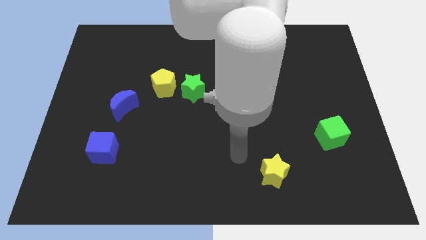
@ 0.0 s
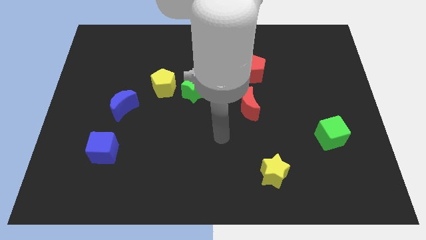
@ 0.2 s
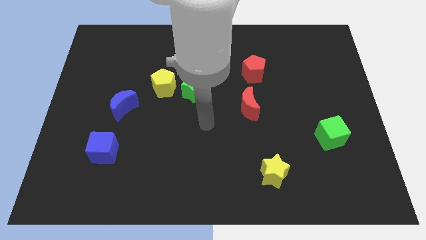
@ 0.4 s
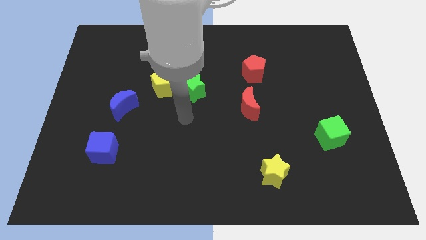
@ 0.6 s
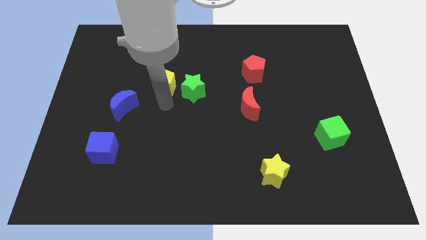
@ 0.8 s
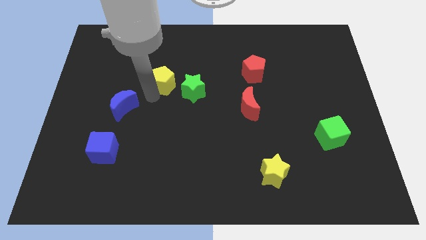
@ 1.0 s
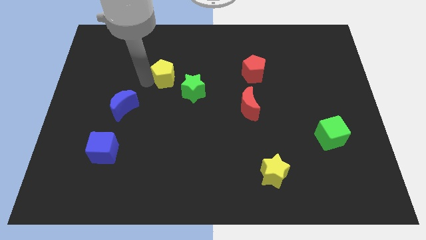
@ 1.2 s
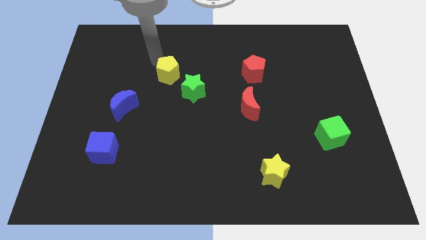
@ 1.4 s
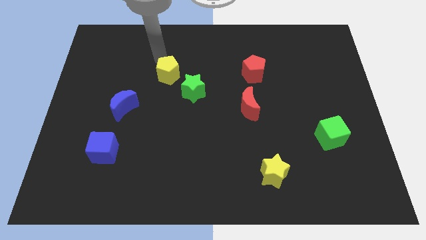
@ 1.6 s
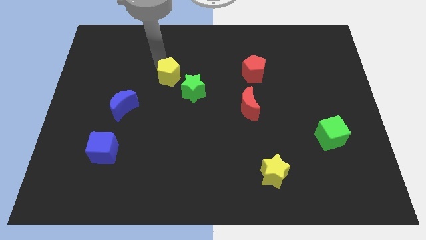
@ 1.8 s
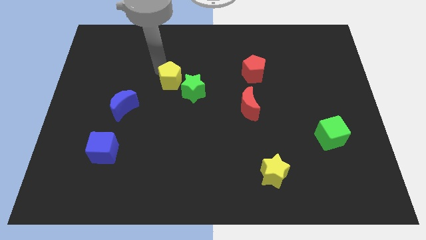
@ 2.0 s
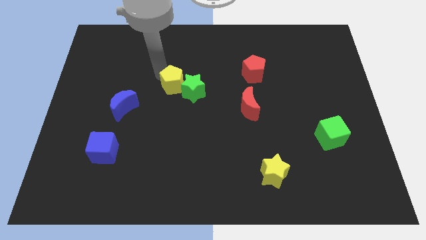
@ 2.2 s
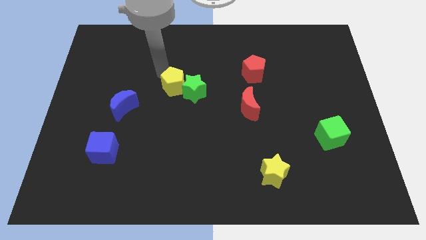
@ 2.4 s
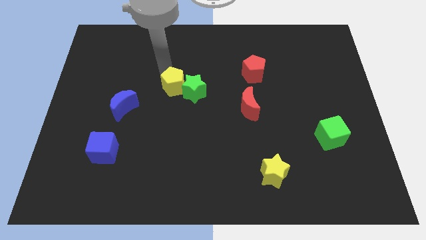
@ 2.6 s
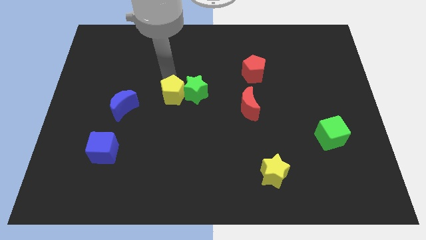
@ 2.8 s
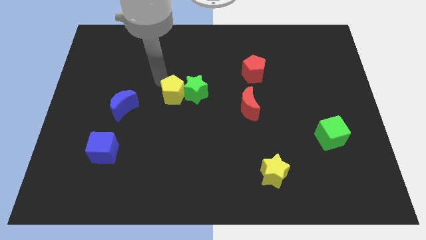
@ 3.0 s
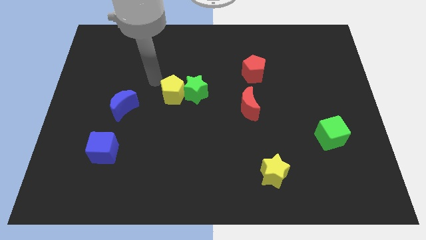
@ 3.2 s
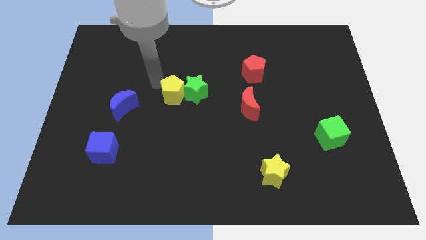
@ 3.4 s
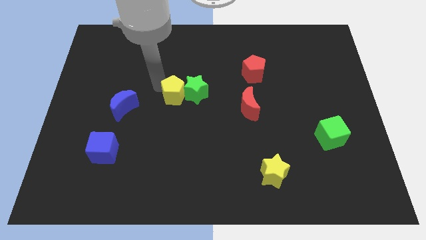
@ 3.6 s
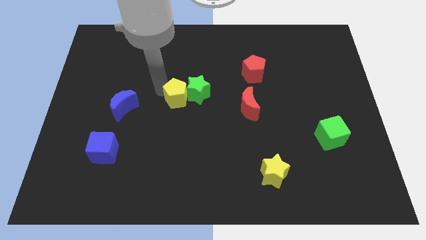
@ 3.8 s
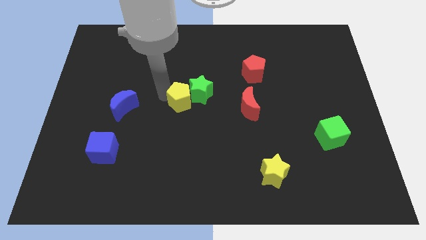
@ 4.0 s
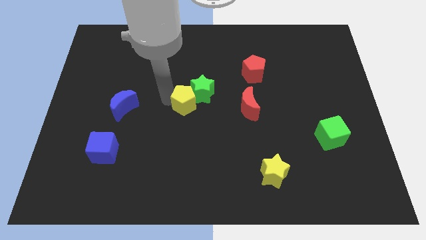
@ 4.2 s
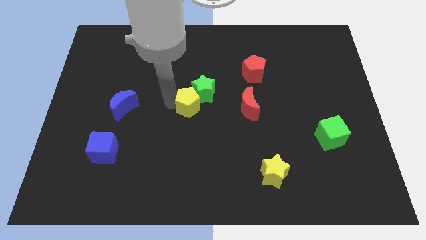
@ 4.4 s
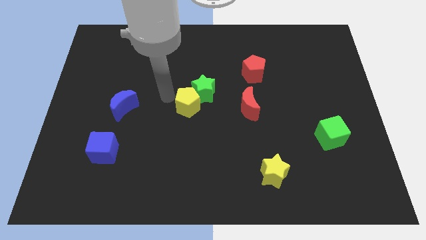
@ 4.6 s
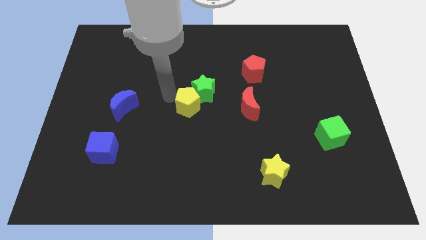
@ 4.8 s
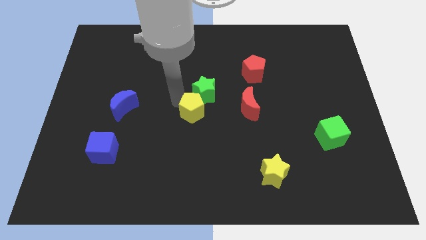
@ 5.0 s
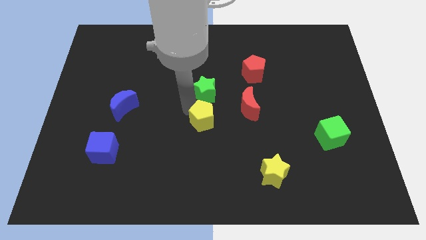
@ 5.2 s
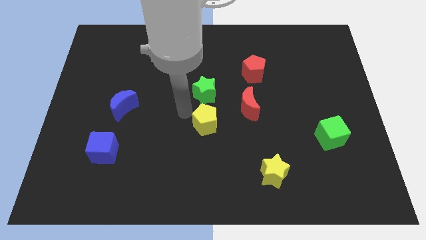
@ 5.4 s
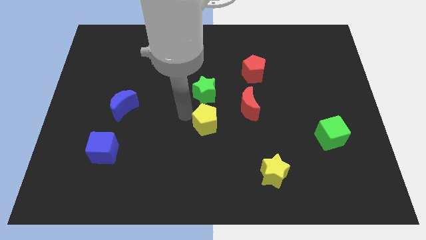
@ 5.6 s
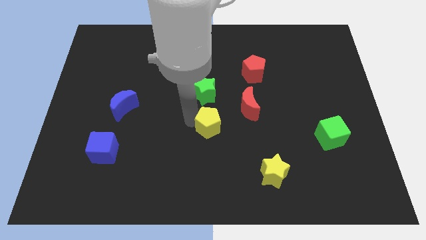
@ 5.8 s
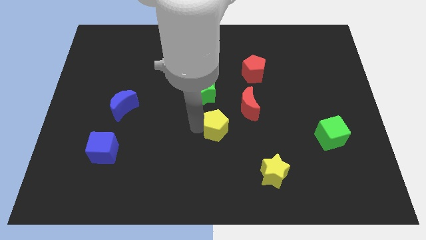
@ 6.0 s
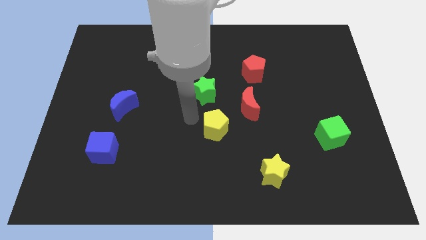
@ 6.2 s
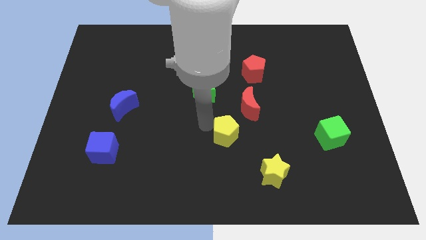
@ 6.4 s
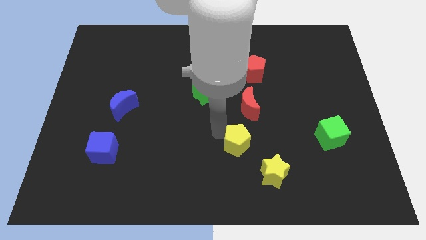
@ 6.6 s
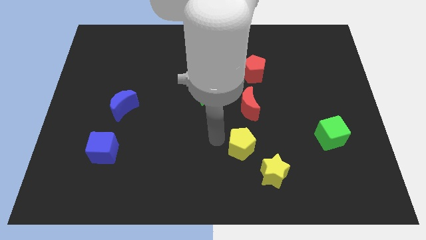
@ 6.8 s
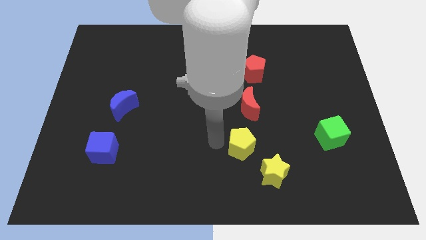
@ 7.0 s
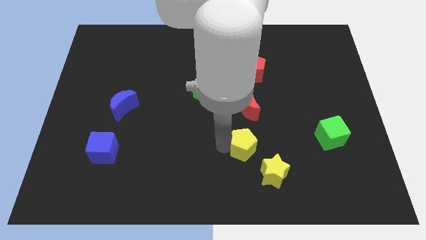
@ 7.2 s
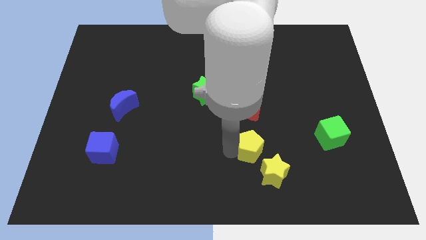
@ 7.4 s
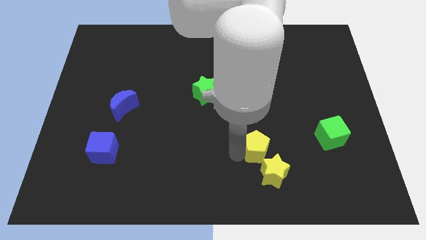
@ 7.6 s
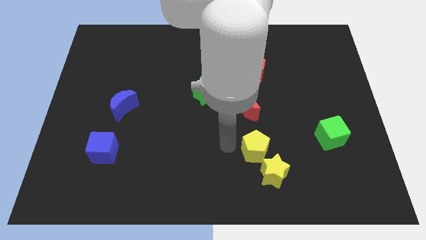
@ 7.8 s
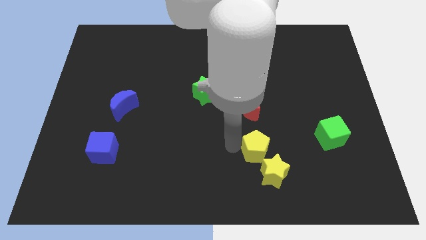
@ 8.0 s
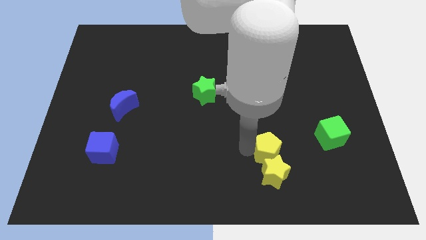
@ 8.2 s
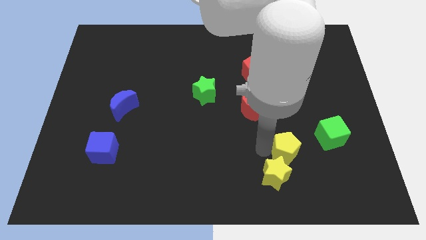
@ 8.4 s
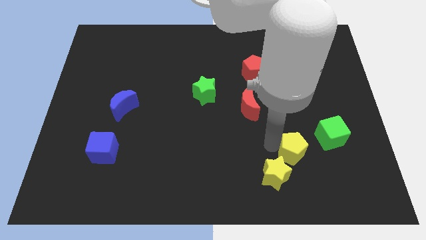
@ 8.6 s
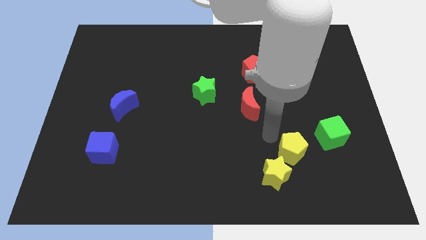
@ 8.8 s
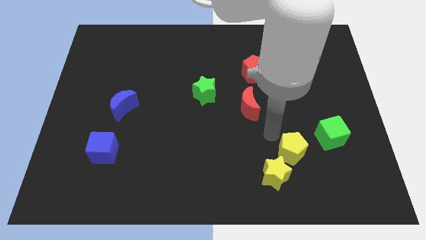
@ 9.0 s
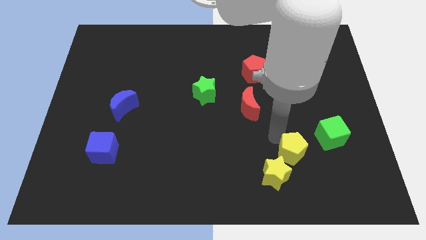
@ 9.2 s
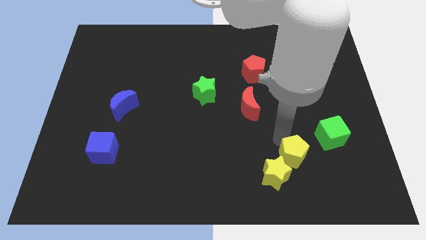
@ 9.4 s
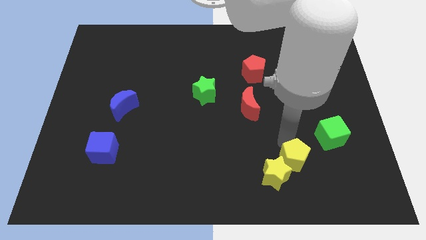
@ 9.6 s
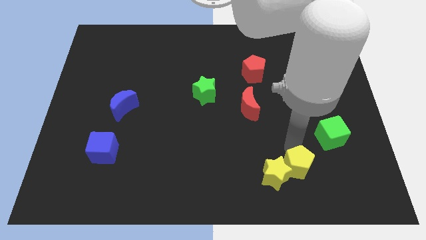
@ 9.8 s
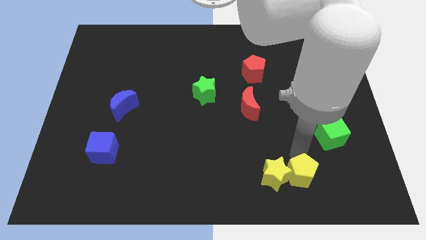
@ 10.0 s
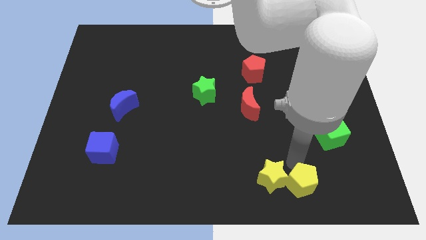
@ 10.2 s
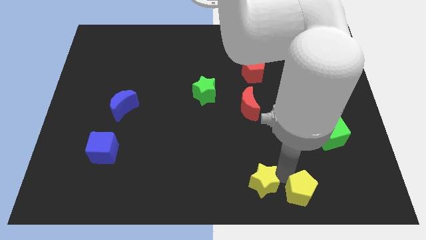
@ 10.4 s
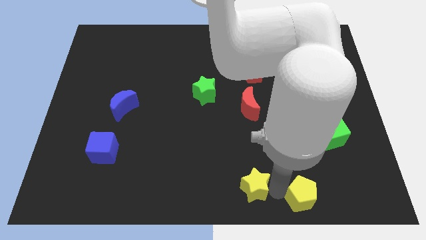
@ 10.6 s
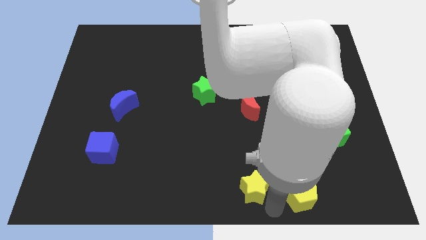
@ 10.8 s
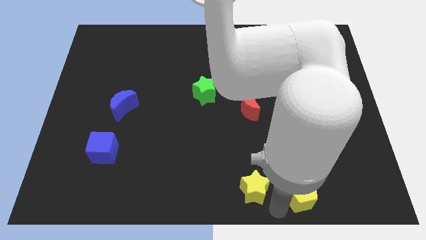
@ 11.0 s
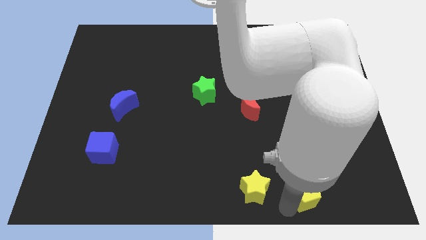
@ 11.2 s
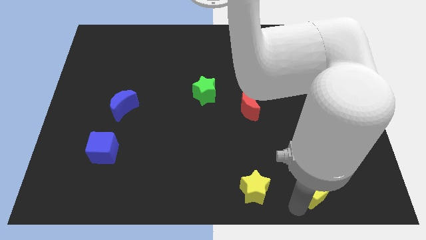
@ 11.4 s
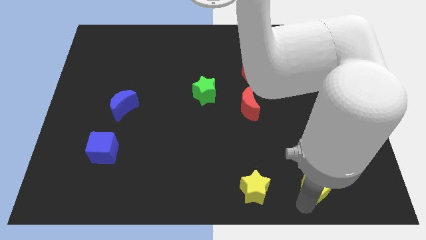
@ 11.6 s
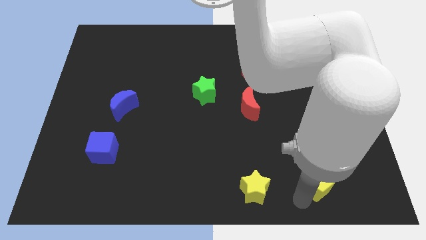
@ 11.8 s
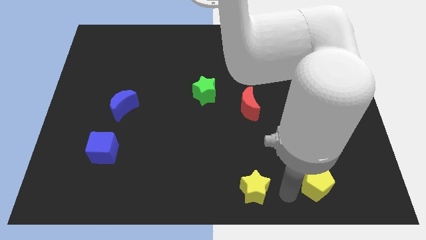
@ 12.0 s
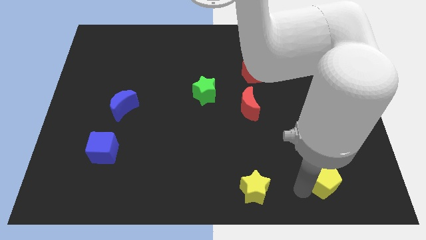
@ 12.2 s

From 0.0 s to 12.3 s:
push the yellow pentagon to the bottom side of the green cube
